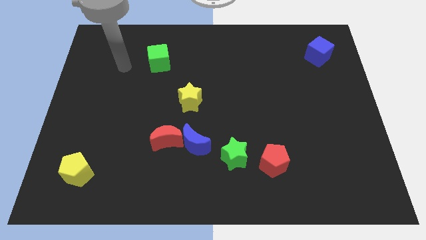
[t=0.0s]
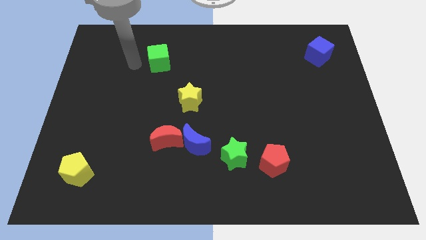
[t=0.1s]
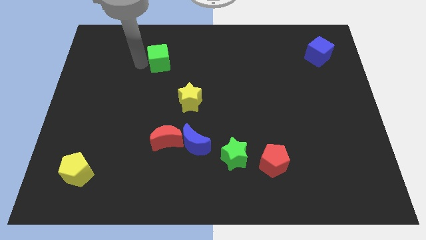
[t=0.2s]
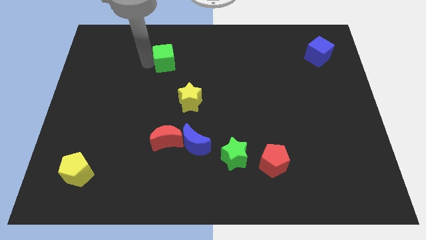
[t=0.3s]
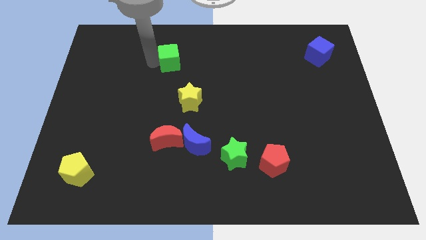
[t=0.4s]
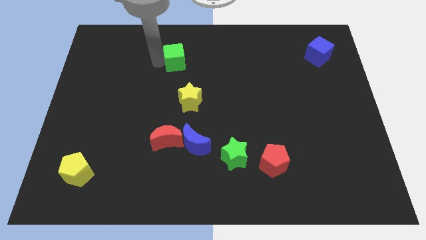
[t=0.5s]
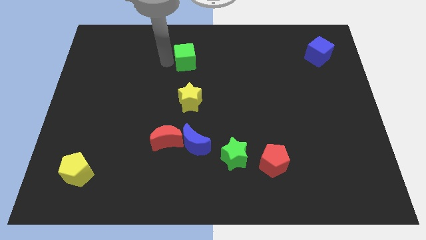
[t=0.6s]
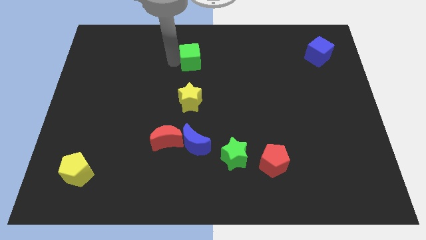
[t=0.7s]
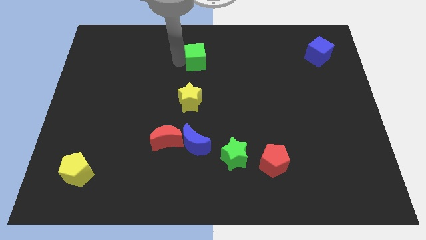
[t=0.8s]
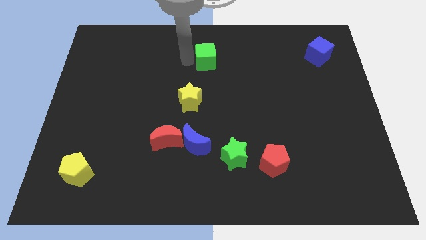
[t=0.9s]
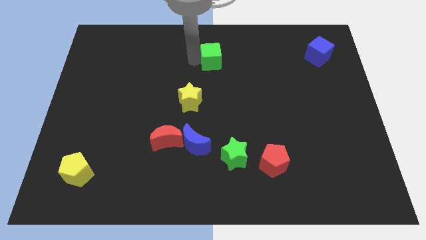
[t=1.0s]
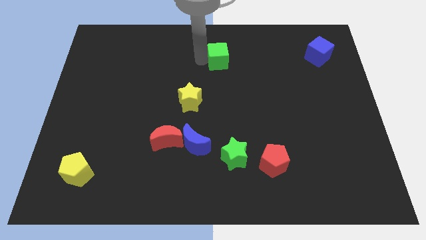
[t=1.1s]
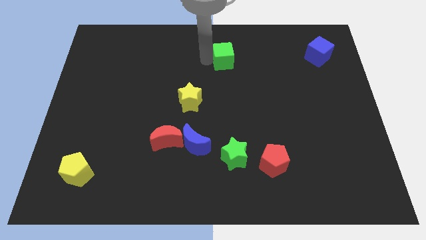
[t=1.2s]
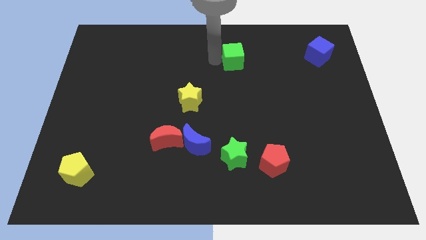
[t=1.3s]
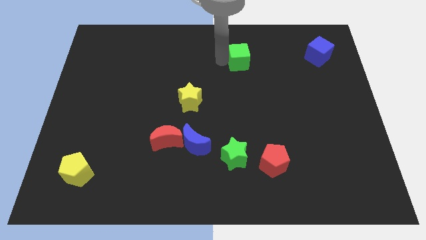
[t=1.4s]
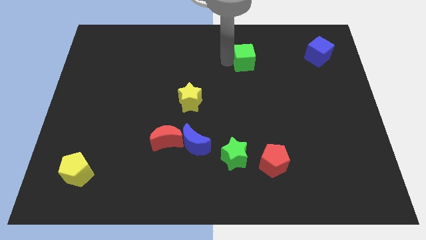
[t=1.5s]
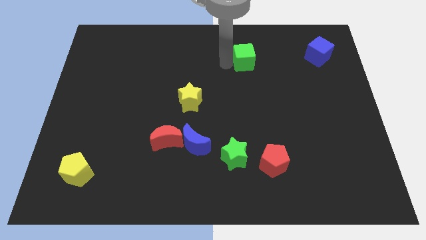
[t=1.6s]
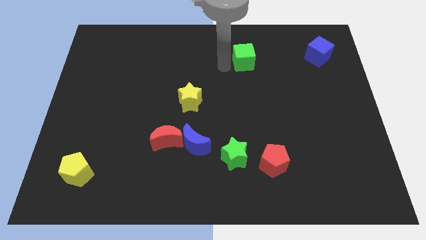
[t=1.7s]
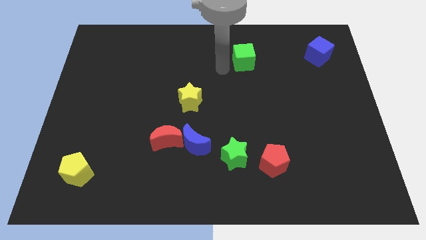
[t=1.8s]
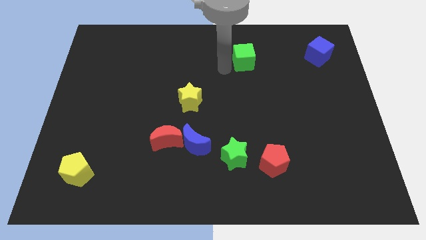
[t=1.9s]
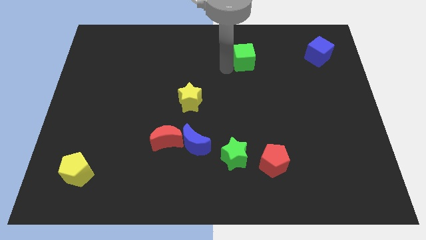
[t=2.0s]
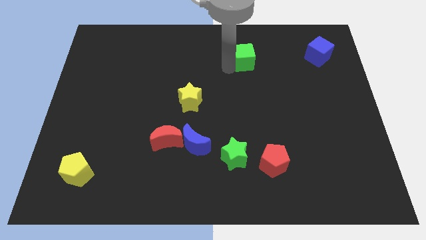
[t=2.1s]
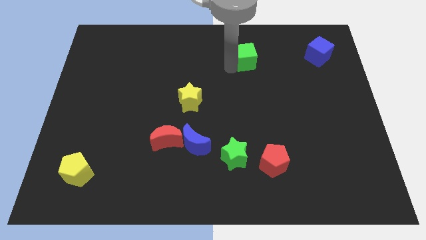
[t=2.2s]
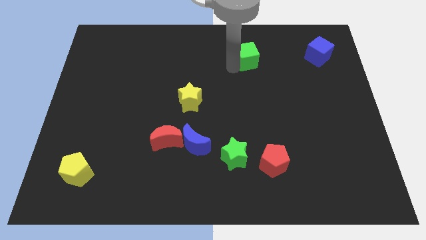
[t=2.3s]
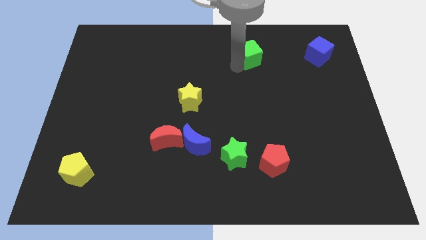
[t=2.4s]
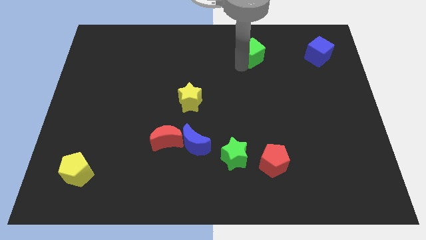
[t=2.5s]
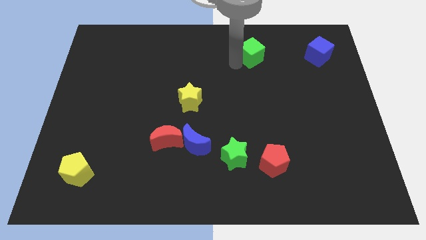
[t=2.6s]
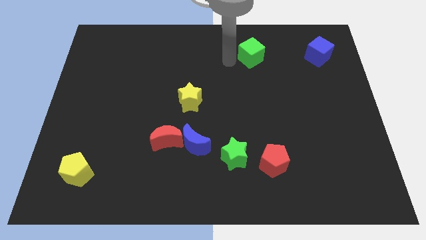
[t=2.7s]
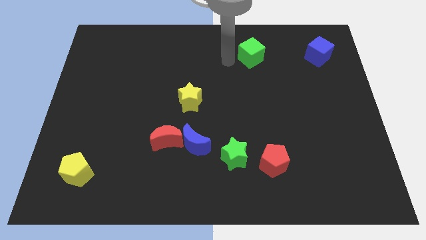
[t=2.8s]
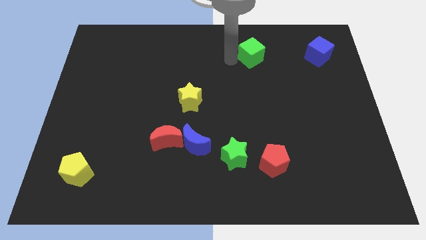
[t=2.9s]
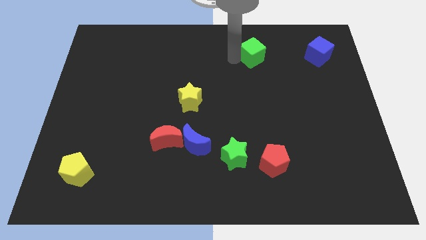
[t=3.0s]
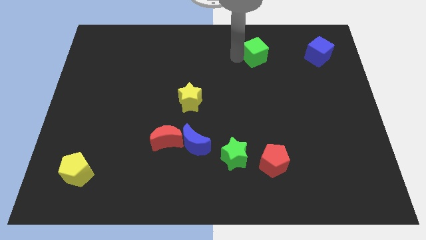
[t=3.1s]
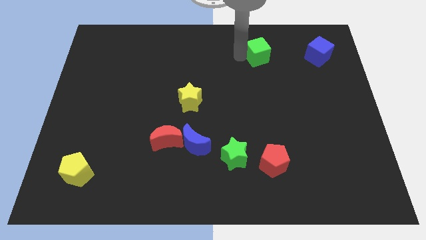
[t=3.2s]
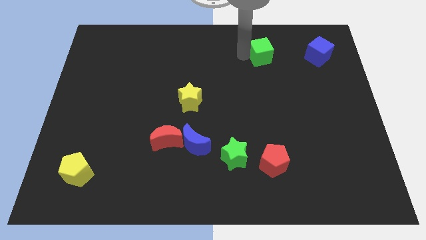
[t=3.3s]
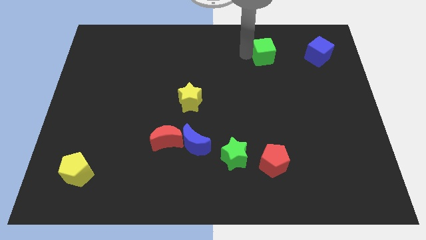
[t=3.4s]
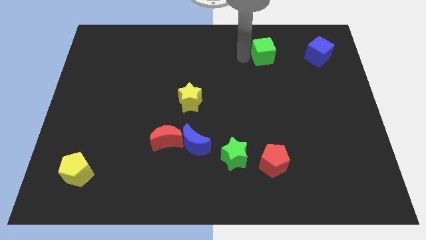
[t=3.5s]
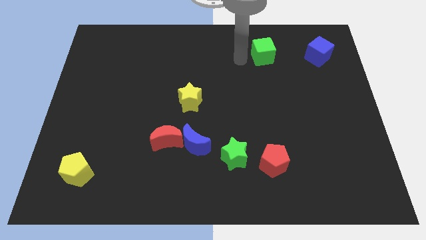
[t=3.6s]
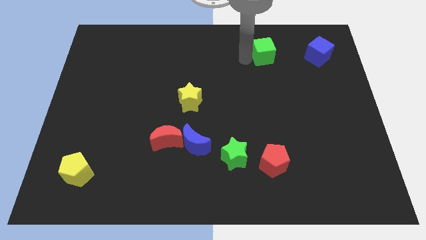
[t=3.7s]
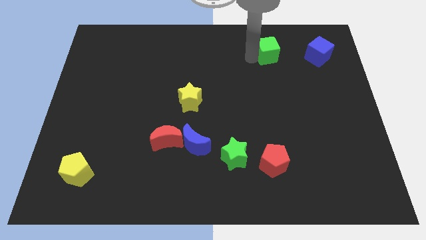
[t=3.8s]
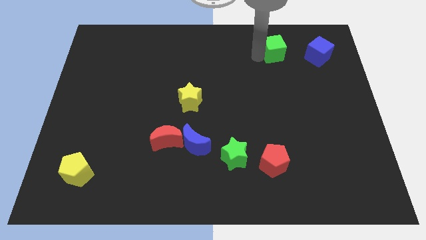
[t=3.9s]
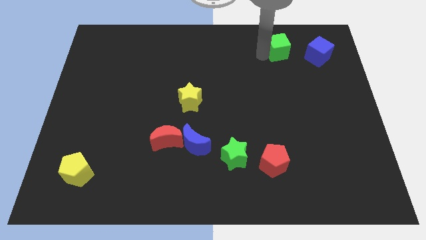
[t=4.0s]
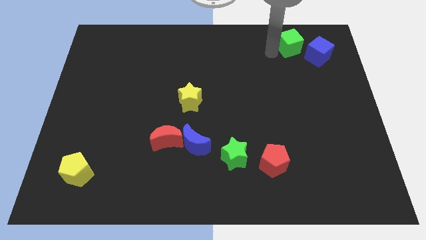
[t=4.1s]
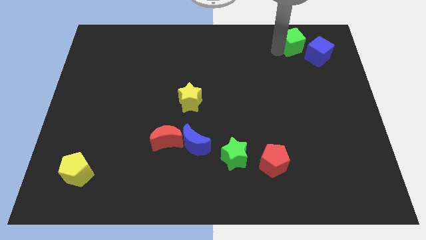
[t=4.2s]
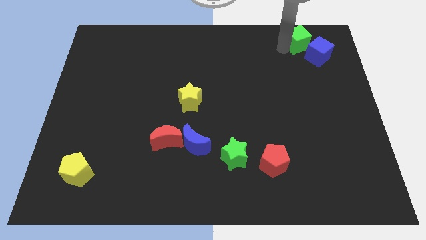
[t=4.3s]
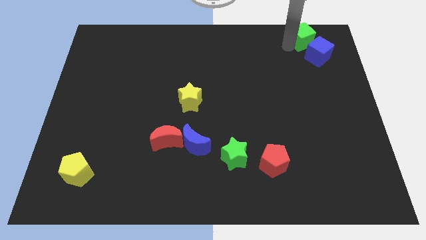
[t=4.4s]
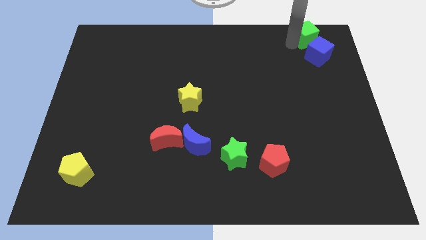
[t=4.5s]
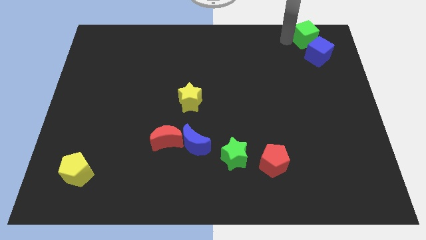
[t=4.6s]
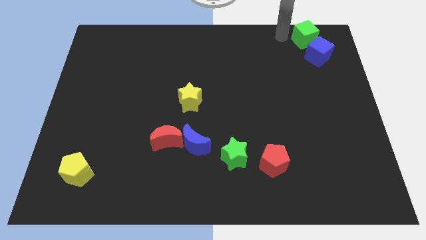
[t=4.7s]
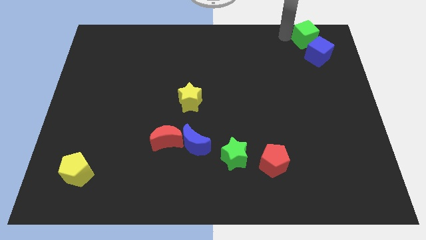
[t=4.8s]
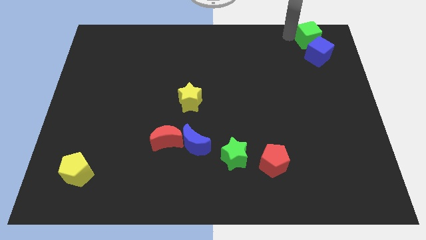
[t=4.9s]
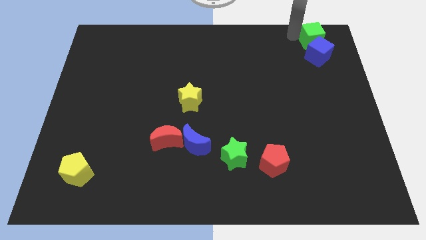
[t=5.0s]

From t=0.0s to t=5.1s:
move the green cube to the top right corner

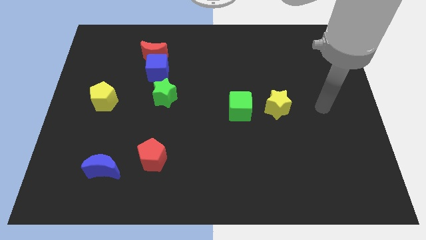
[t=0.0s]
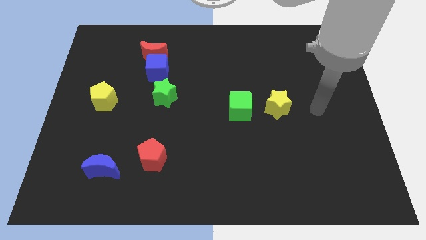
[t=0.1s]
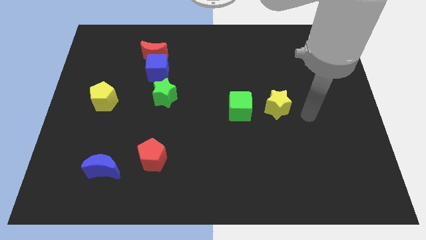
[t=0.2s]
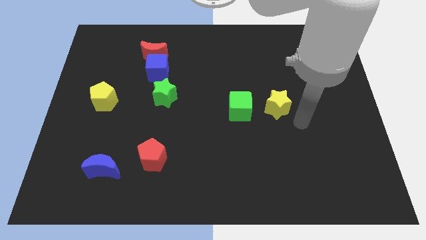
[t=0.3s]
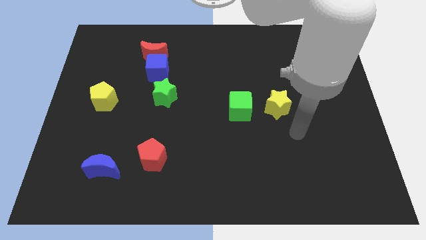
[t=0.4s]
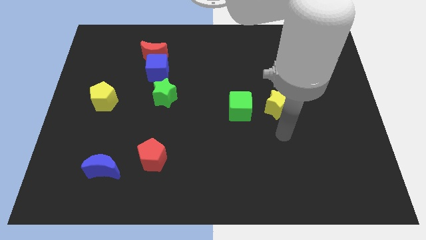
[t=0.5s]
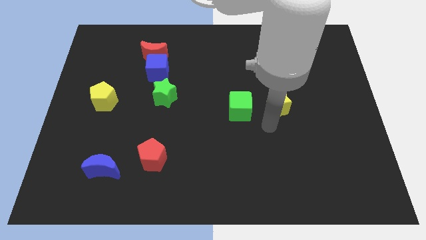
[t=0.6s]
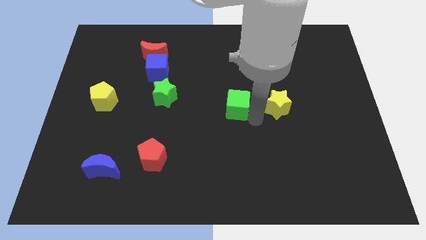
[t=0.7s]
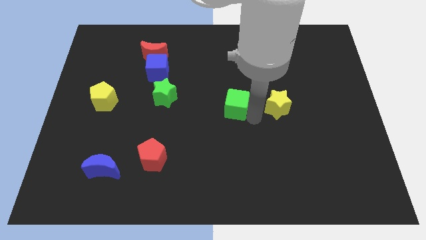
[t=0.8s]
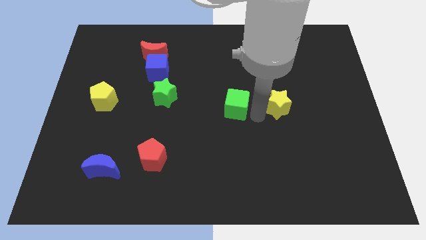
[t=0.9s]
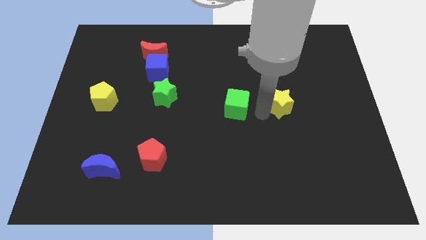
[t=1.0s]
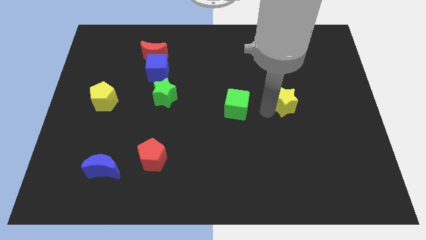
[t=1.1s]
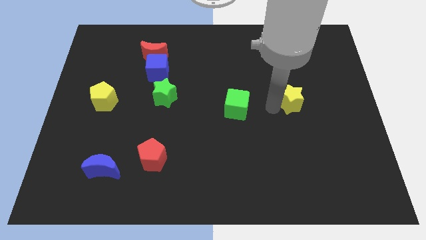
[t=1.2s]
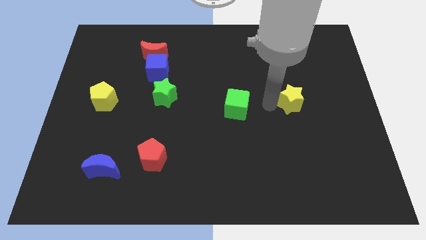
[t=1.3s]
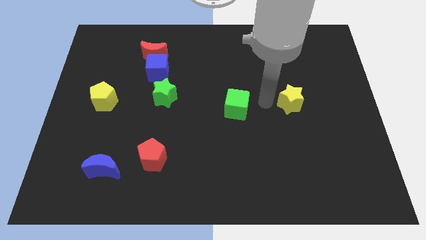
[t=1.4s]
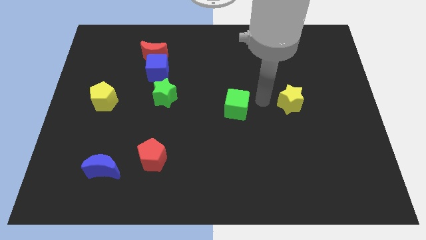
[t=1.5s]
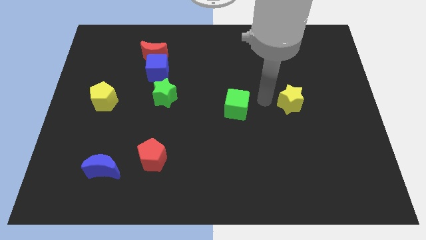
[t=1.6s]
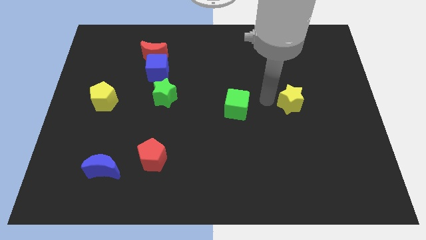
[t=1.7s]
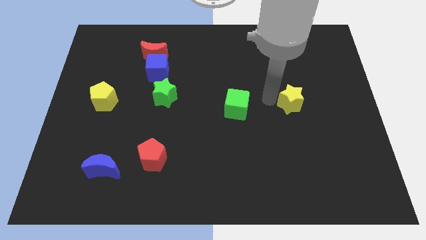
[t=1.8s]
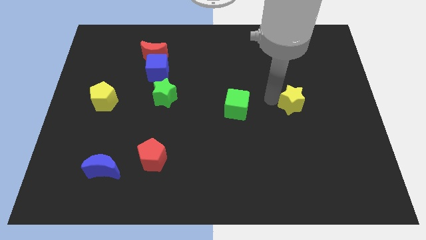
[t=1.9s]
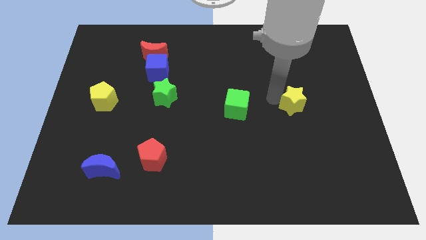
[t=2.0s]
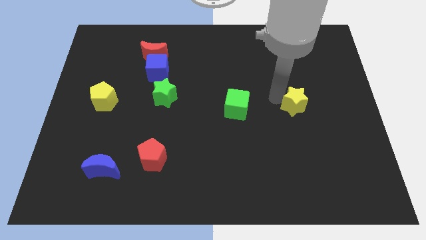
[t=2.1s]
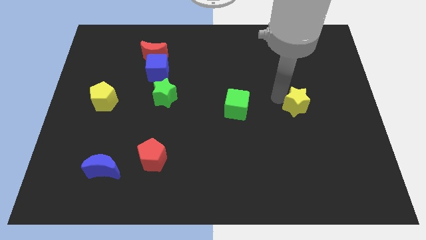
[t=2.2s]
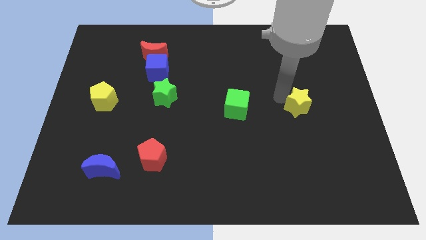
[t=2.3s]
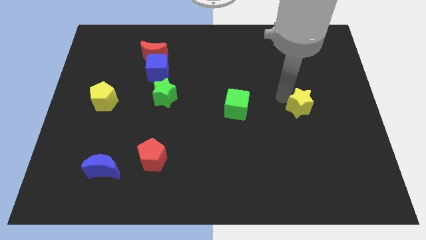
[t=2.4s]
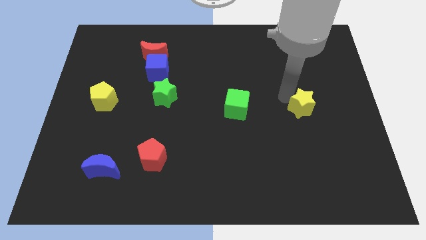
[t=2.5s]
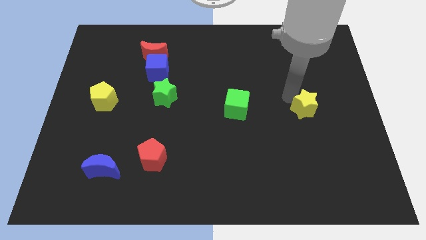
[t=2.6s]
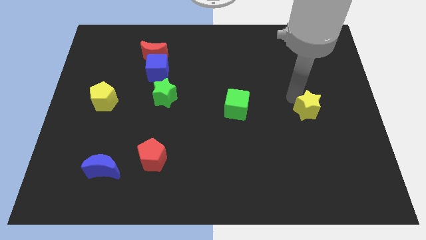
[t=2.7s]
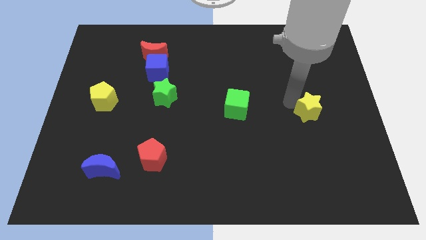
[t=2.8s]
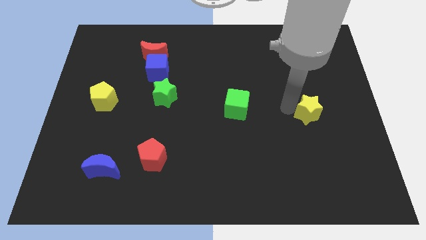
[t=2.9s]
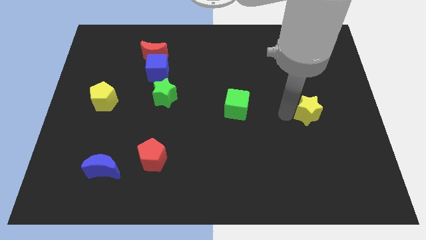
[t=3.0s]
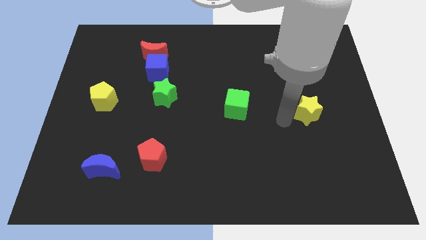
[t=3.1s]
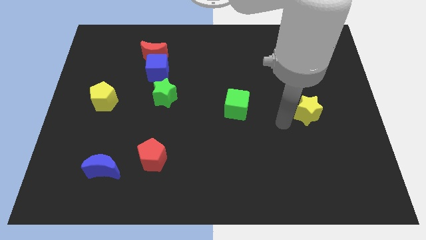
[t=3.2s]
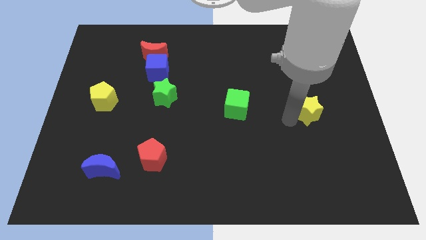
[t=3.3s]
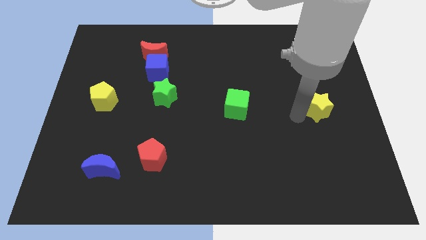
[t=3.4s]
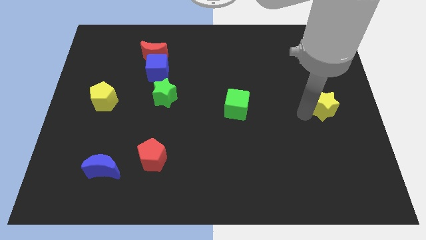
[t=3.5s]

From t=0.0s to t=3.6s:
move the yellow star to the right side of the board
